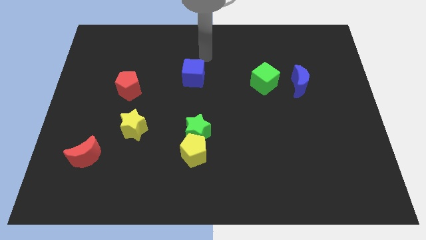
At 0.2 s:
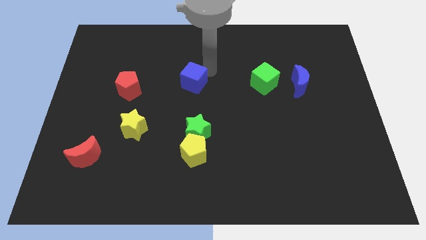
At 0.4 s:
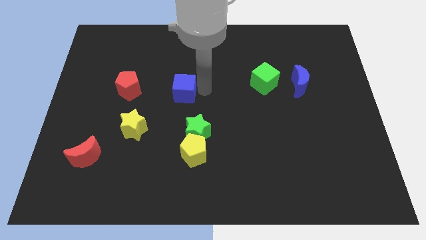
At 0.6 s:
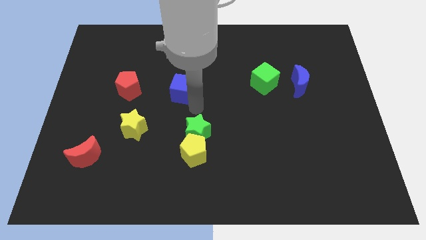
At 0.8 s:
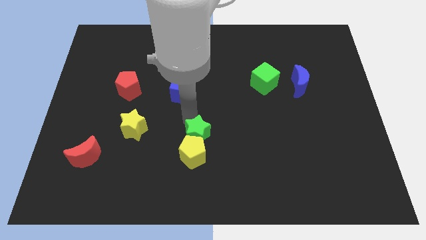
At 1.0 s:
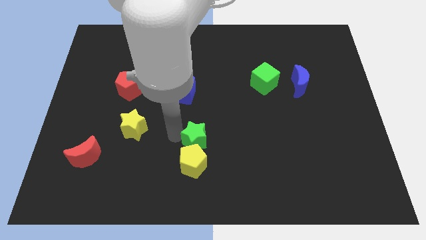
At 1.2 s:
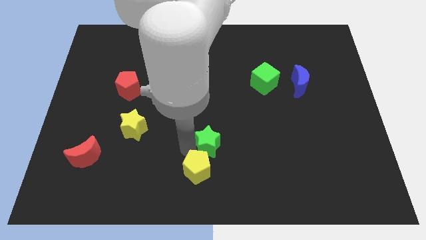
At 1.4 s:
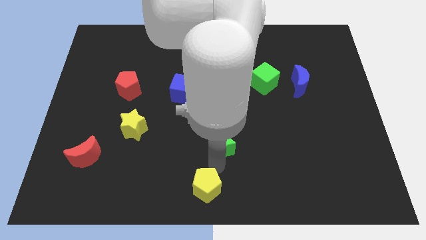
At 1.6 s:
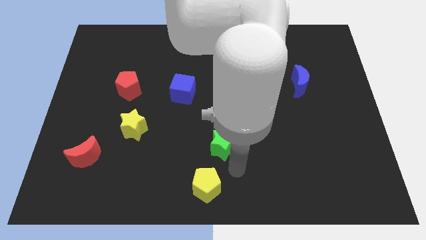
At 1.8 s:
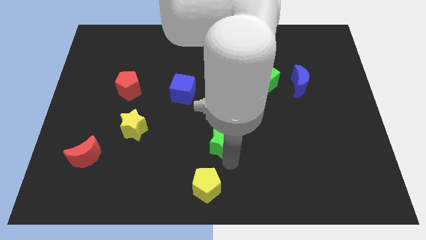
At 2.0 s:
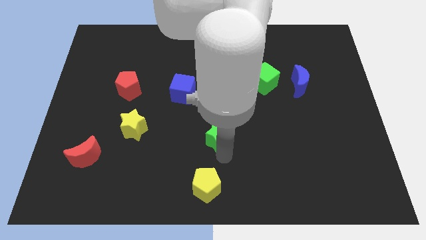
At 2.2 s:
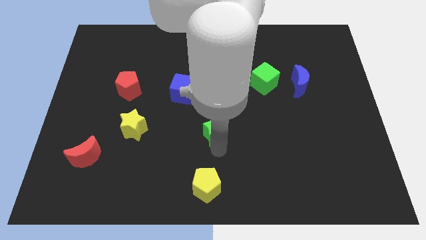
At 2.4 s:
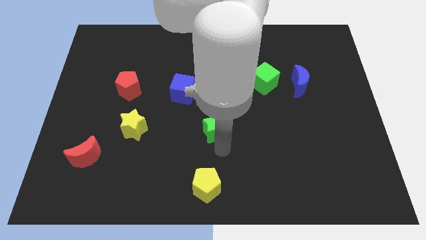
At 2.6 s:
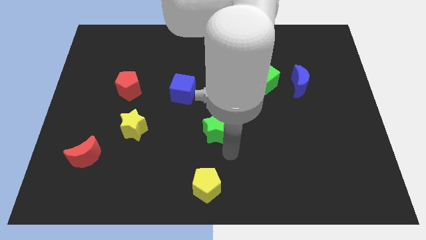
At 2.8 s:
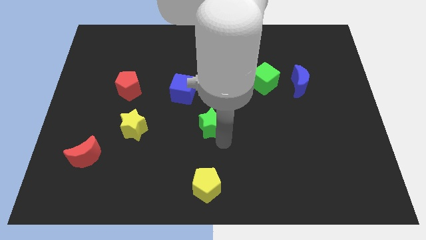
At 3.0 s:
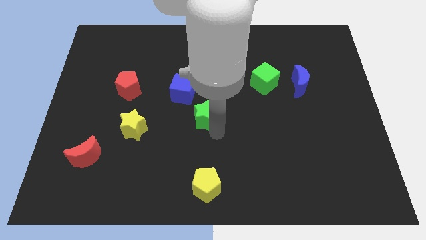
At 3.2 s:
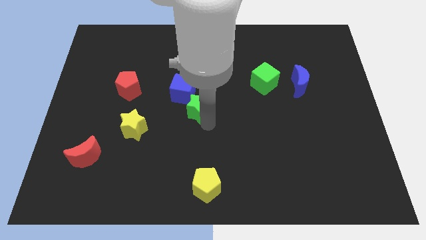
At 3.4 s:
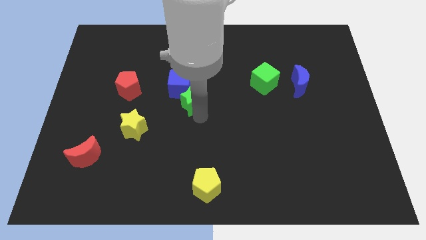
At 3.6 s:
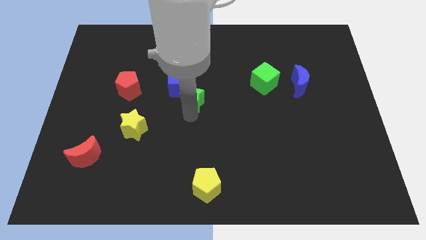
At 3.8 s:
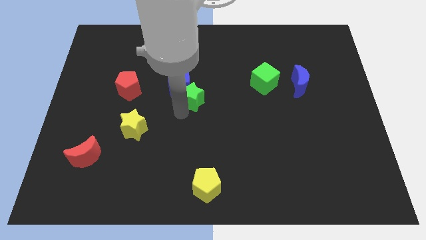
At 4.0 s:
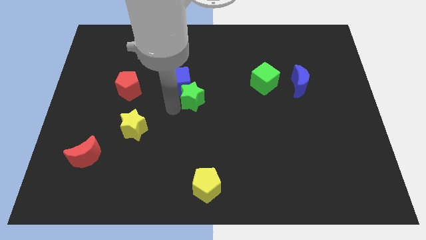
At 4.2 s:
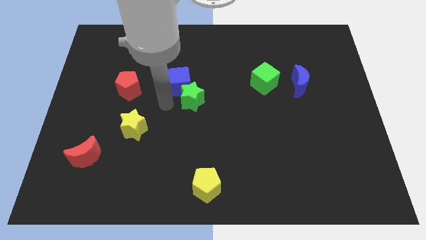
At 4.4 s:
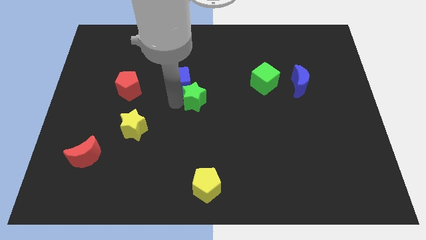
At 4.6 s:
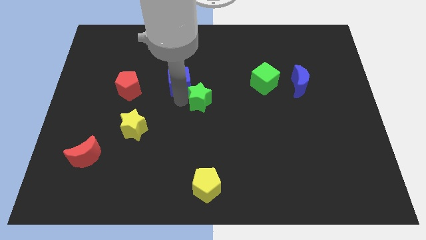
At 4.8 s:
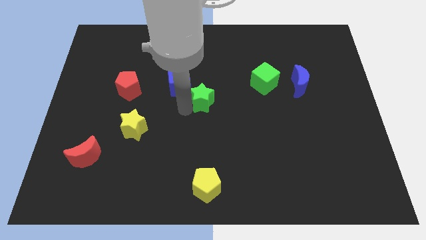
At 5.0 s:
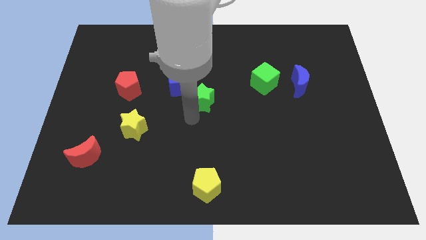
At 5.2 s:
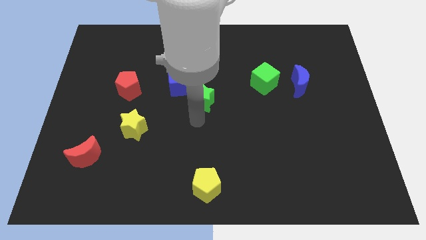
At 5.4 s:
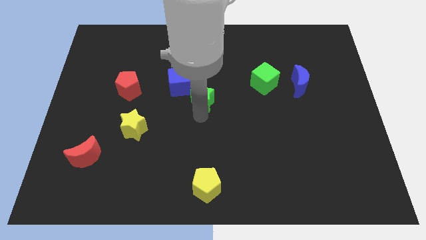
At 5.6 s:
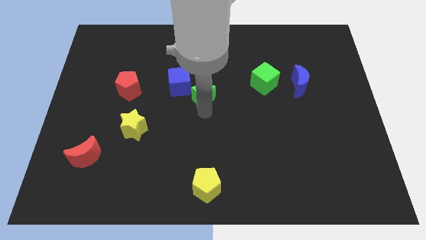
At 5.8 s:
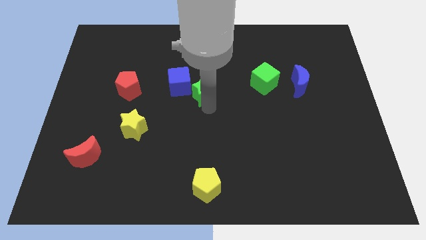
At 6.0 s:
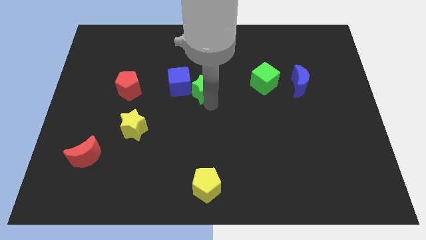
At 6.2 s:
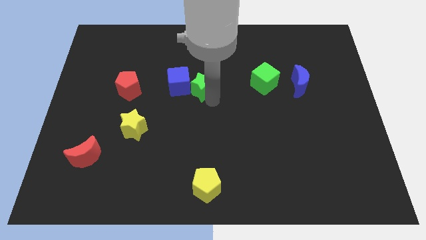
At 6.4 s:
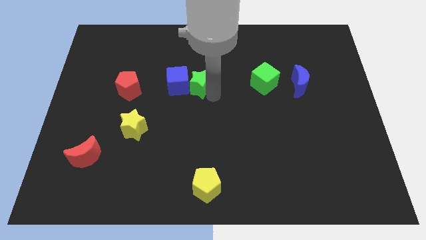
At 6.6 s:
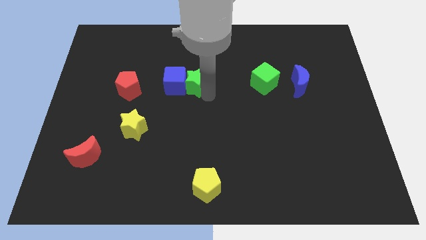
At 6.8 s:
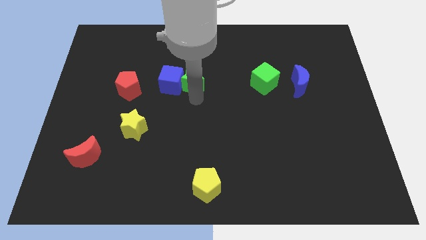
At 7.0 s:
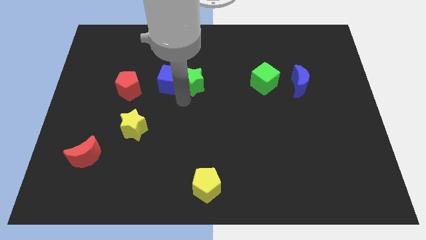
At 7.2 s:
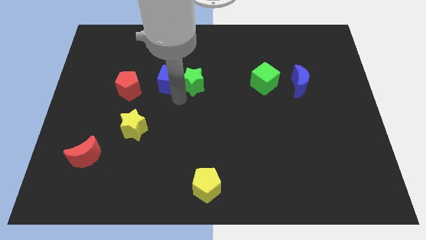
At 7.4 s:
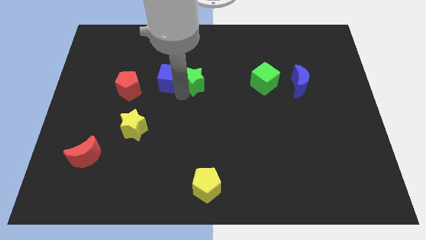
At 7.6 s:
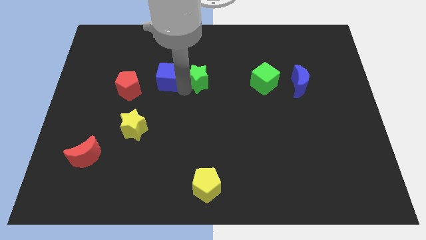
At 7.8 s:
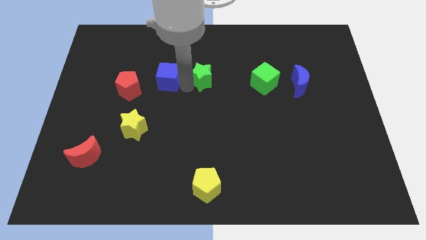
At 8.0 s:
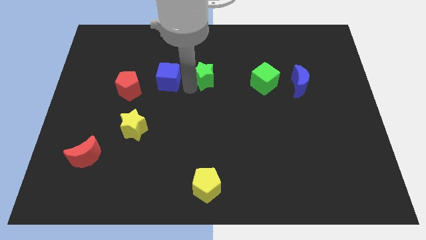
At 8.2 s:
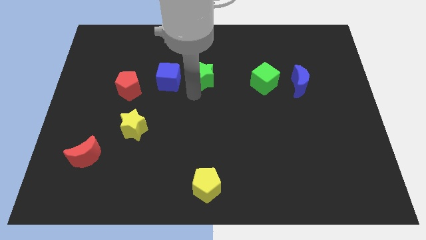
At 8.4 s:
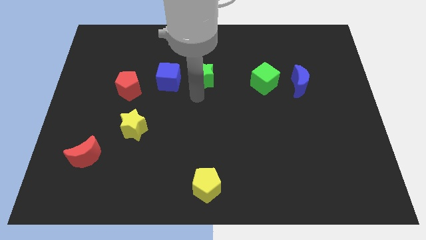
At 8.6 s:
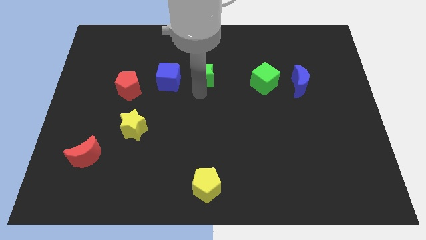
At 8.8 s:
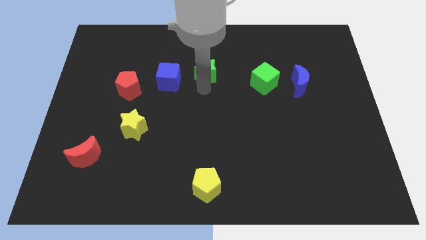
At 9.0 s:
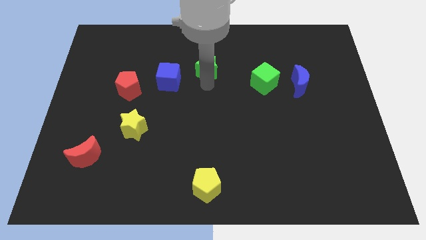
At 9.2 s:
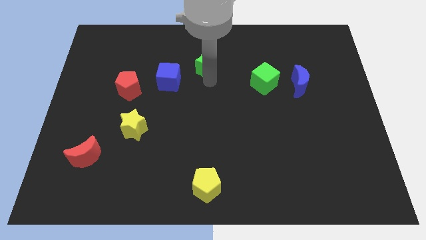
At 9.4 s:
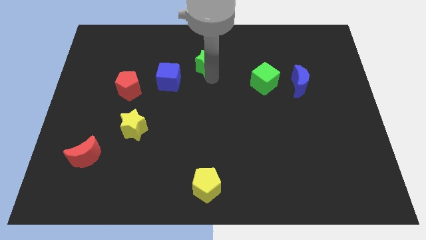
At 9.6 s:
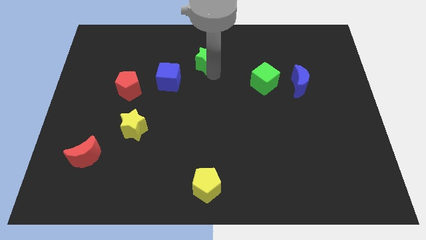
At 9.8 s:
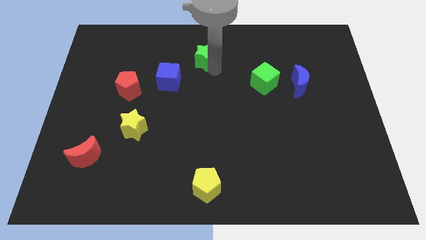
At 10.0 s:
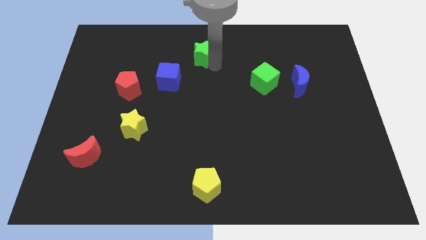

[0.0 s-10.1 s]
slide the green star to the top

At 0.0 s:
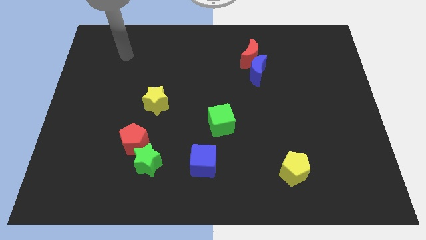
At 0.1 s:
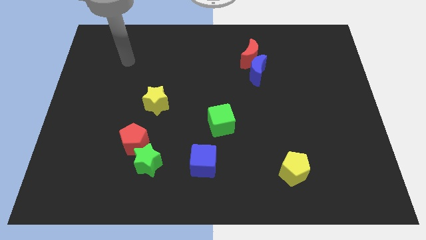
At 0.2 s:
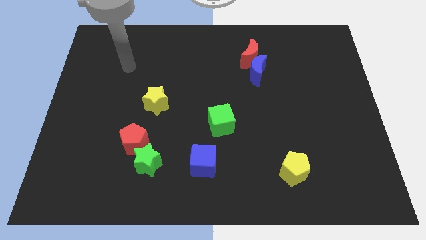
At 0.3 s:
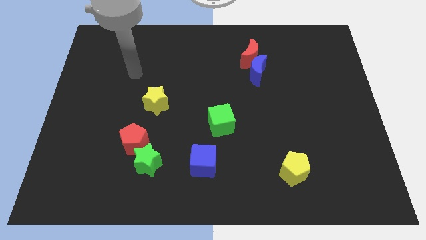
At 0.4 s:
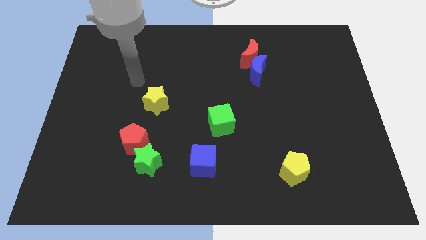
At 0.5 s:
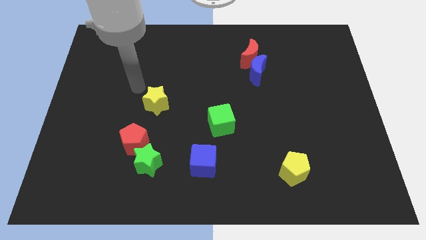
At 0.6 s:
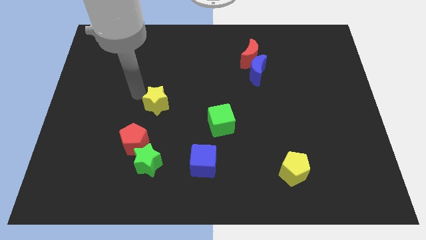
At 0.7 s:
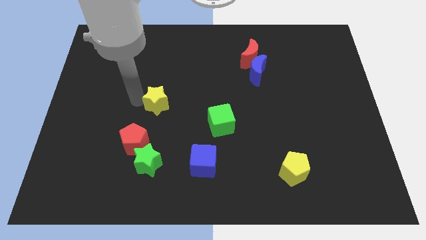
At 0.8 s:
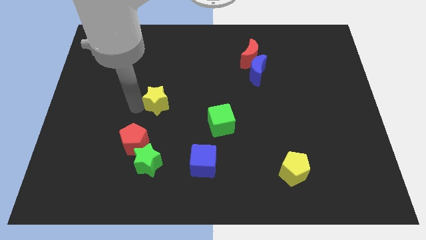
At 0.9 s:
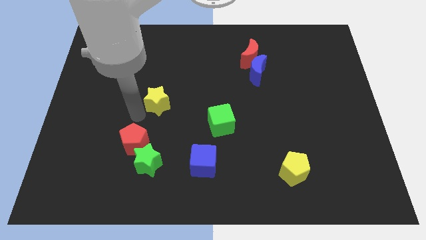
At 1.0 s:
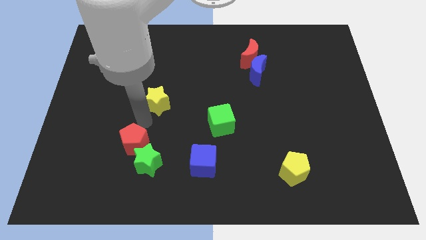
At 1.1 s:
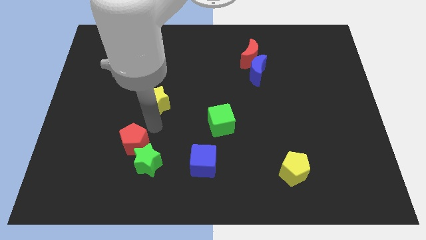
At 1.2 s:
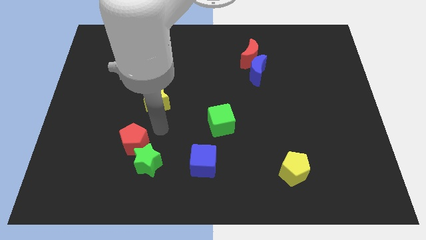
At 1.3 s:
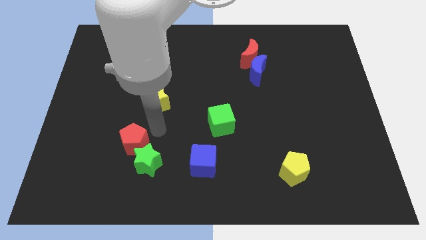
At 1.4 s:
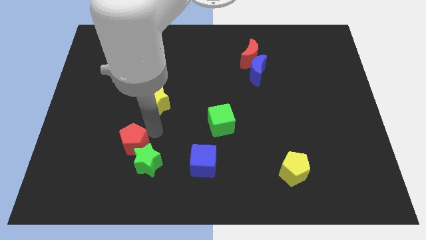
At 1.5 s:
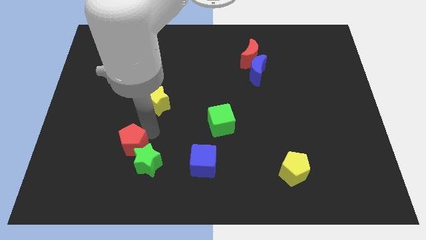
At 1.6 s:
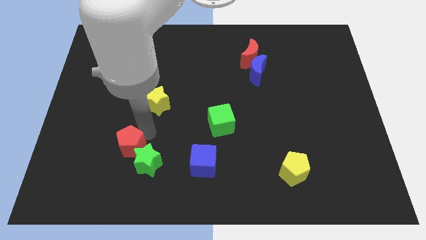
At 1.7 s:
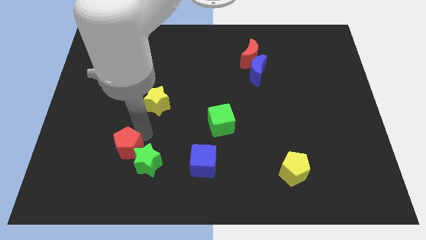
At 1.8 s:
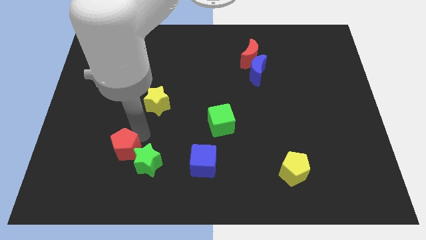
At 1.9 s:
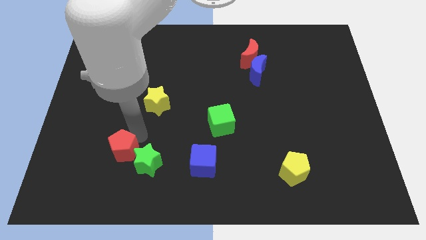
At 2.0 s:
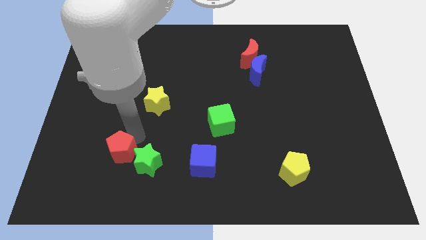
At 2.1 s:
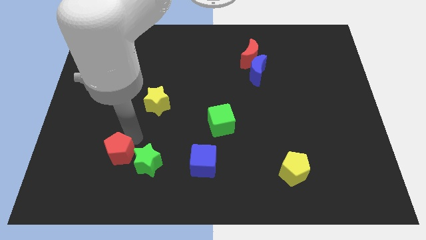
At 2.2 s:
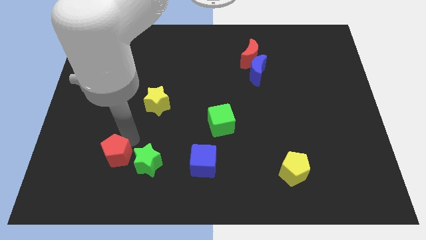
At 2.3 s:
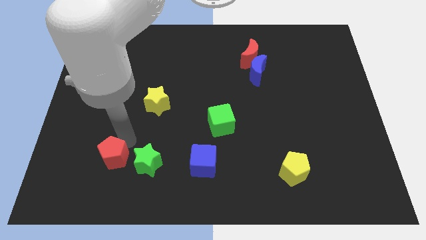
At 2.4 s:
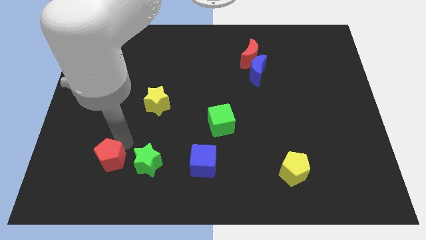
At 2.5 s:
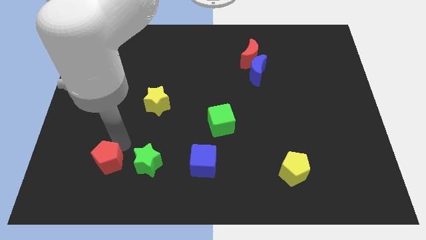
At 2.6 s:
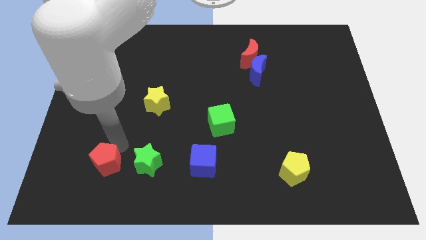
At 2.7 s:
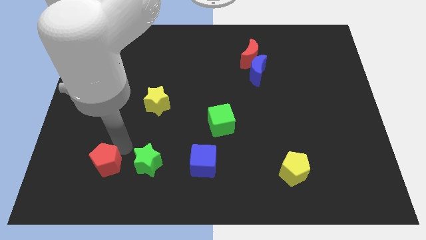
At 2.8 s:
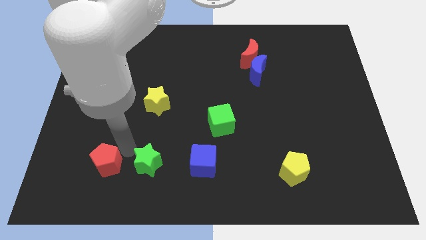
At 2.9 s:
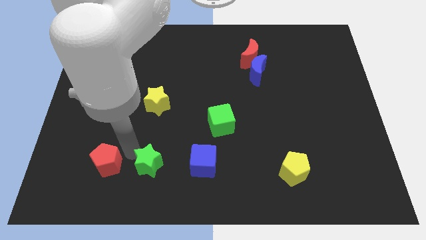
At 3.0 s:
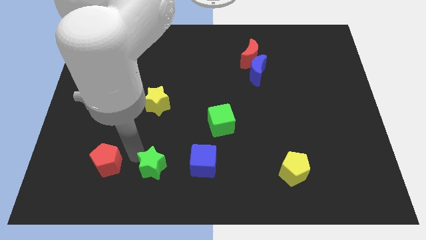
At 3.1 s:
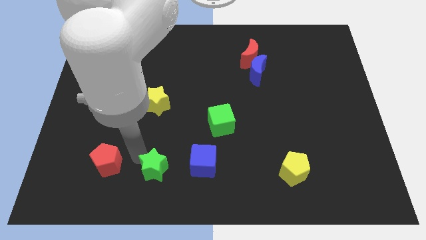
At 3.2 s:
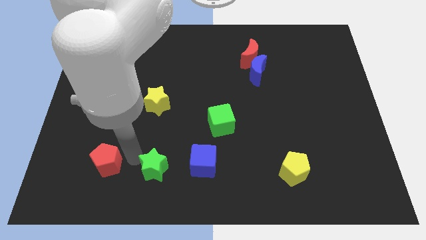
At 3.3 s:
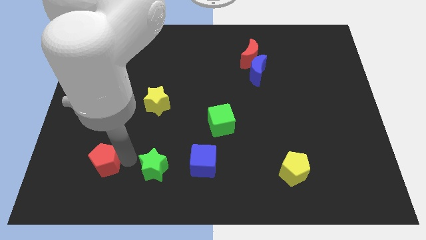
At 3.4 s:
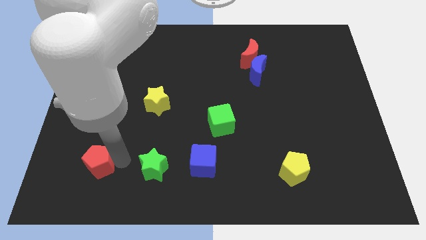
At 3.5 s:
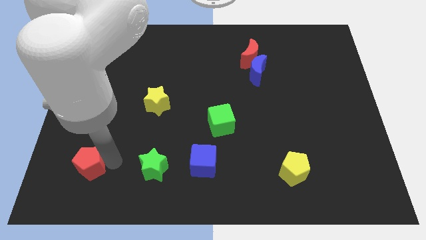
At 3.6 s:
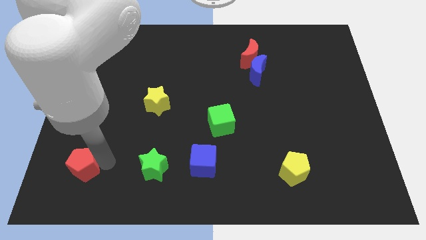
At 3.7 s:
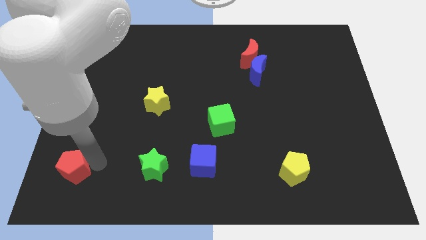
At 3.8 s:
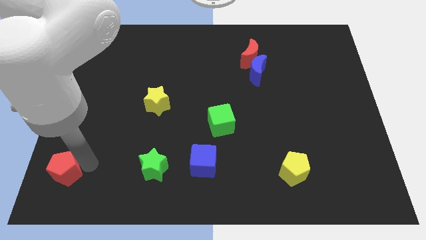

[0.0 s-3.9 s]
put the red pentagon to the bottom left
